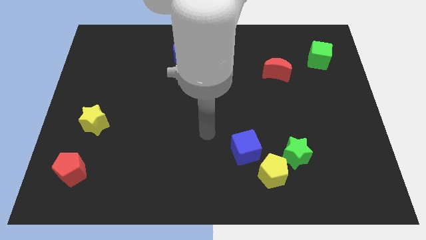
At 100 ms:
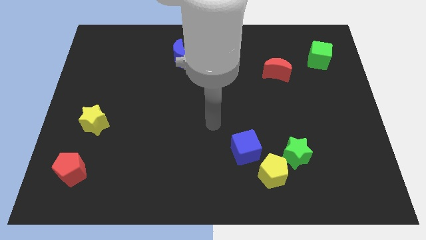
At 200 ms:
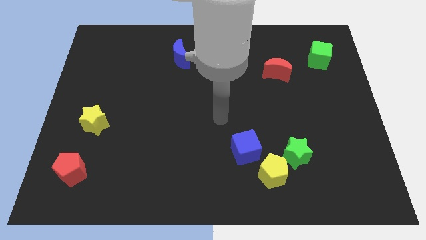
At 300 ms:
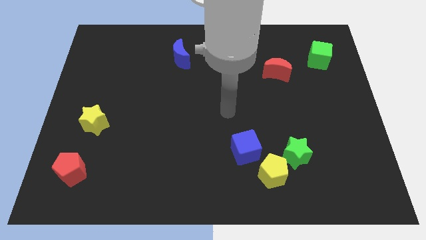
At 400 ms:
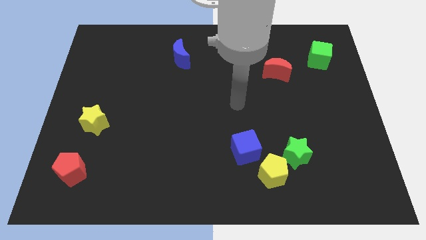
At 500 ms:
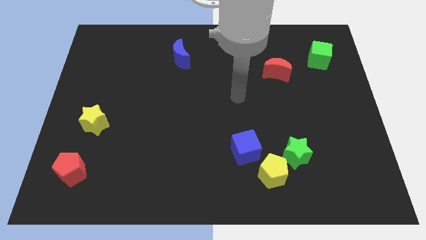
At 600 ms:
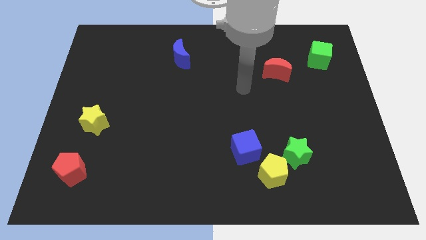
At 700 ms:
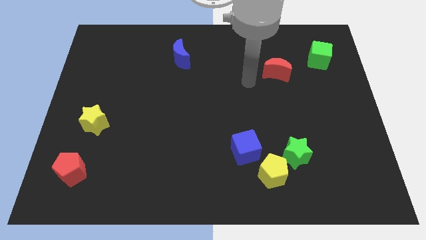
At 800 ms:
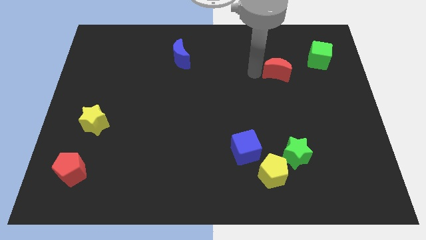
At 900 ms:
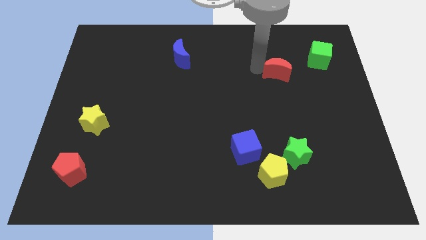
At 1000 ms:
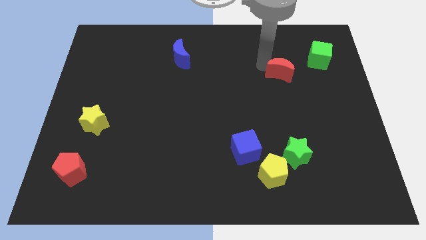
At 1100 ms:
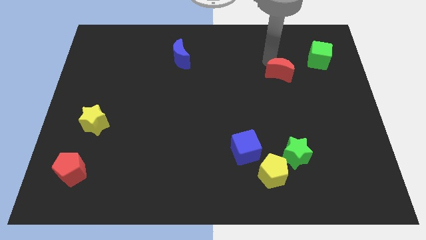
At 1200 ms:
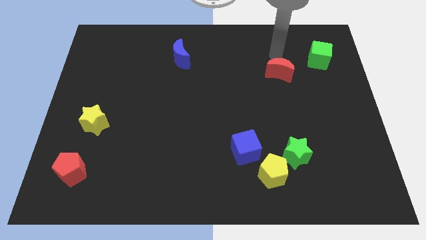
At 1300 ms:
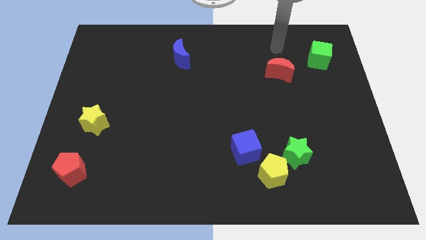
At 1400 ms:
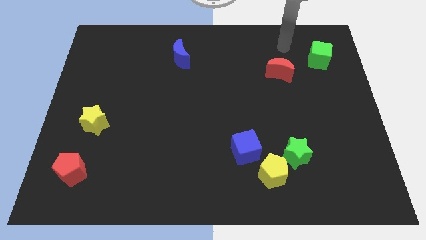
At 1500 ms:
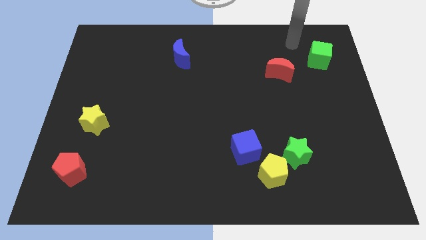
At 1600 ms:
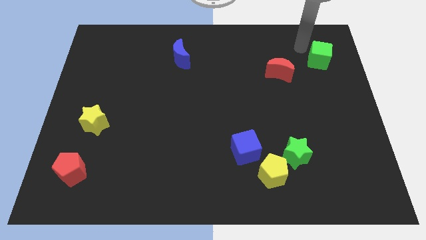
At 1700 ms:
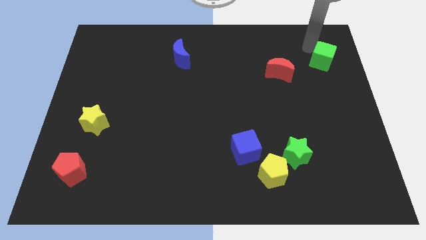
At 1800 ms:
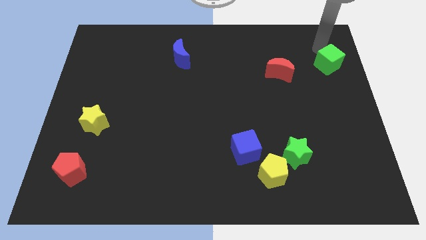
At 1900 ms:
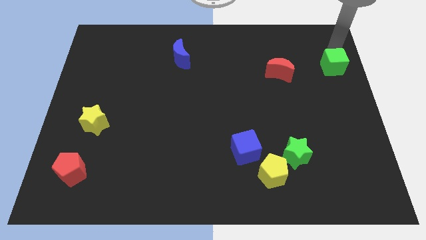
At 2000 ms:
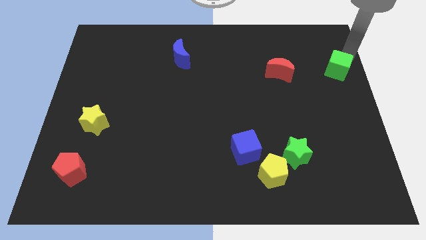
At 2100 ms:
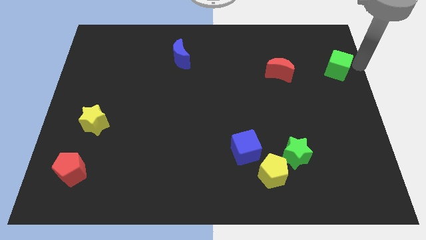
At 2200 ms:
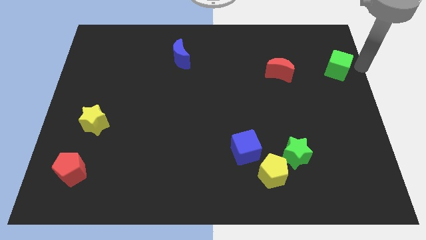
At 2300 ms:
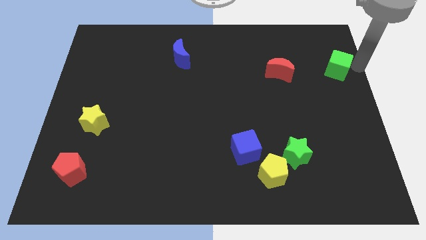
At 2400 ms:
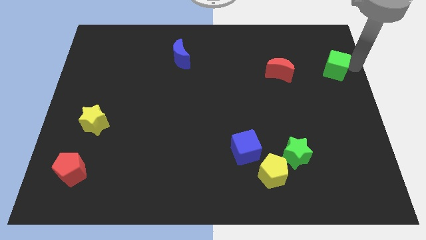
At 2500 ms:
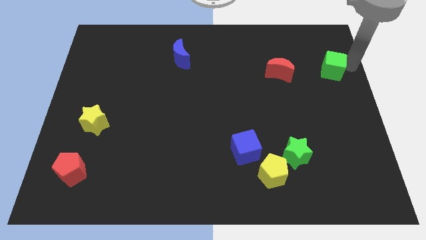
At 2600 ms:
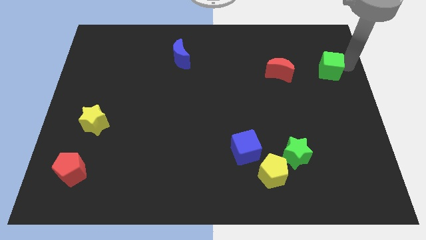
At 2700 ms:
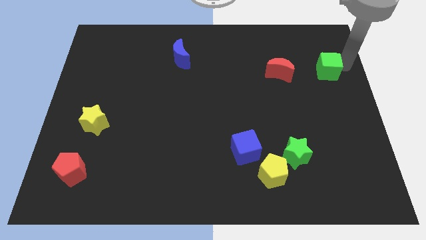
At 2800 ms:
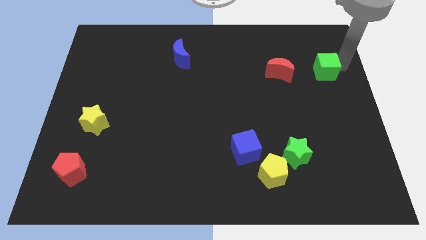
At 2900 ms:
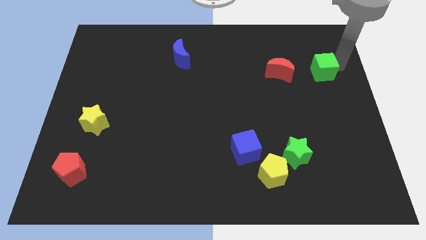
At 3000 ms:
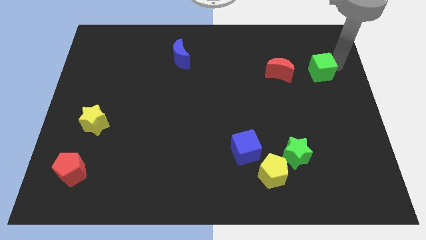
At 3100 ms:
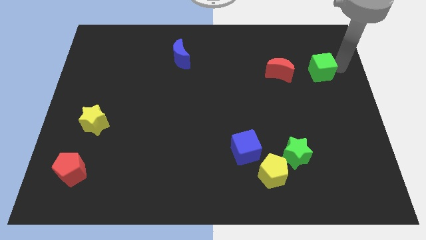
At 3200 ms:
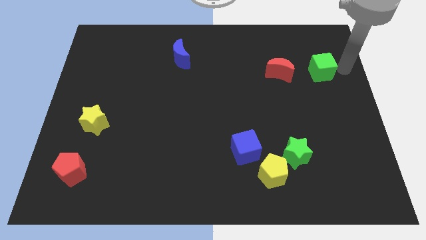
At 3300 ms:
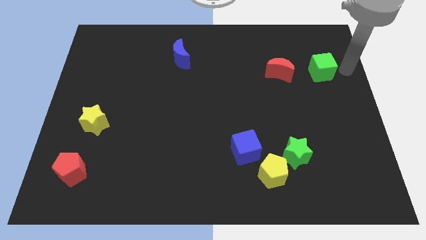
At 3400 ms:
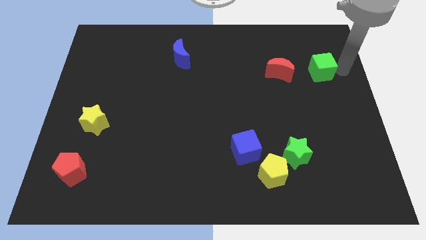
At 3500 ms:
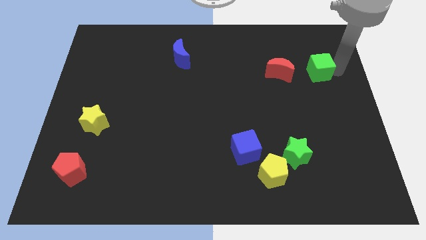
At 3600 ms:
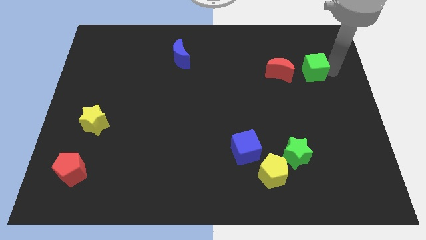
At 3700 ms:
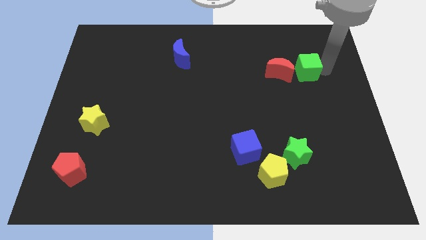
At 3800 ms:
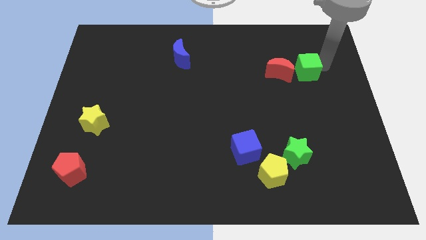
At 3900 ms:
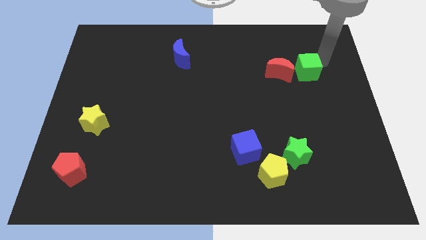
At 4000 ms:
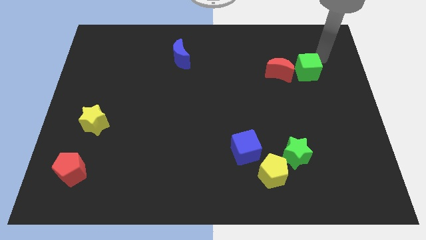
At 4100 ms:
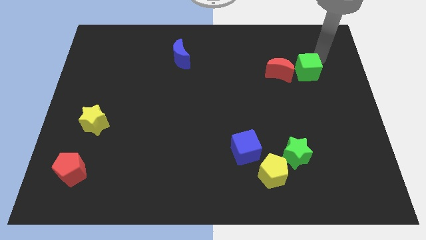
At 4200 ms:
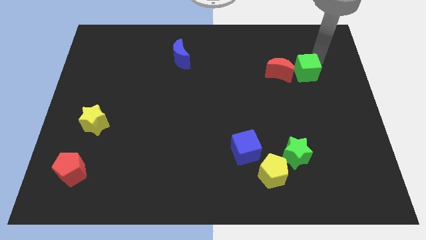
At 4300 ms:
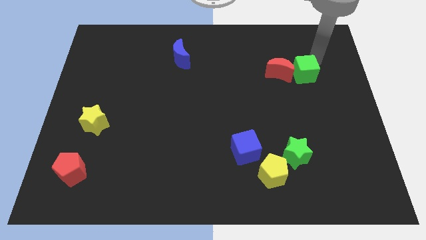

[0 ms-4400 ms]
slide the green cube down and then left slightly

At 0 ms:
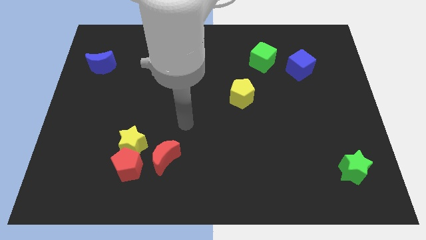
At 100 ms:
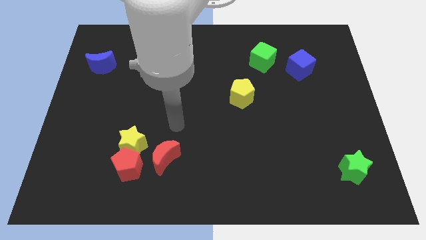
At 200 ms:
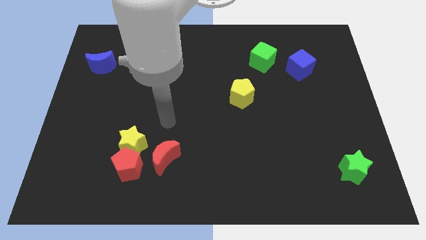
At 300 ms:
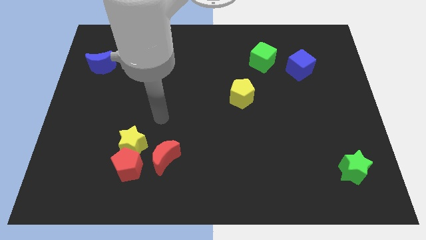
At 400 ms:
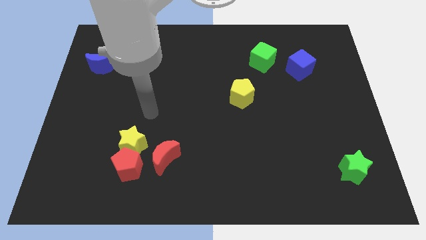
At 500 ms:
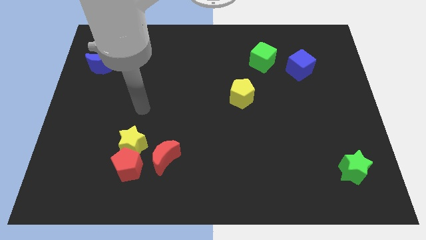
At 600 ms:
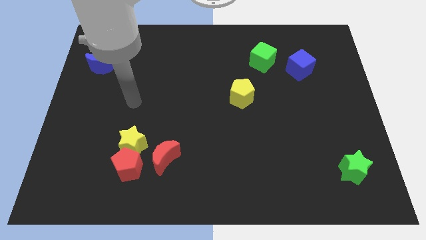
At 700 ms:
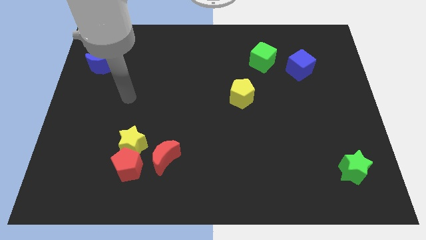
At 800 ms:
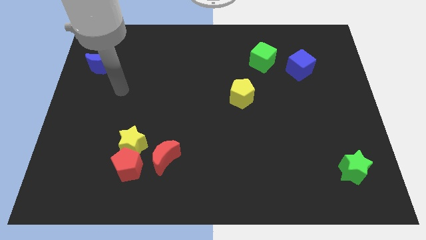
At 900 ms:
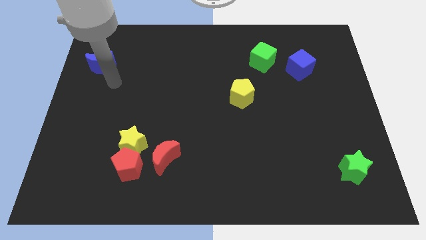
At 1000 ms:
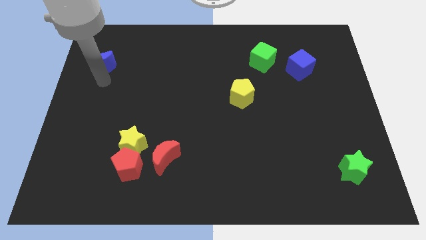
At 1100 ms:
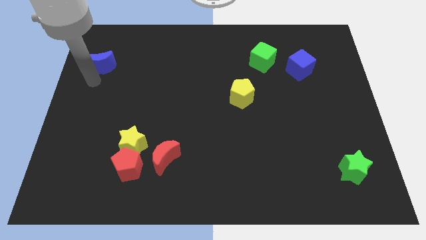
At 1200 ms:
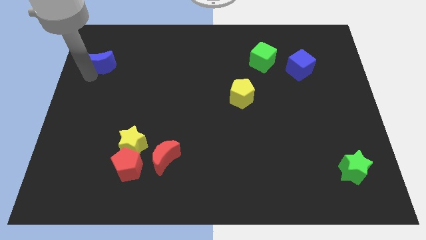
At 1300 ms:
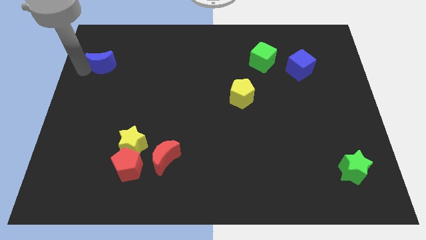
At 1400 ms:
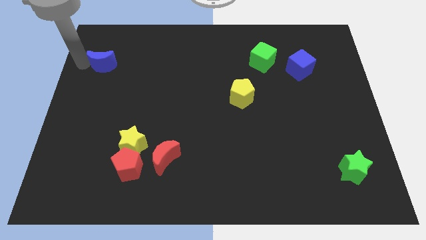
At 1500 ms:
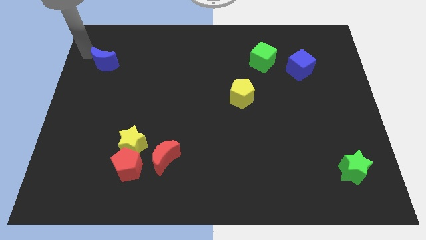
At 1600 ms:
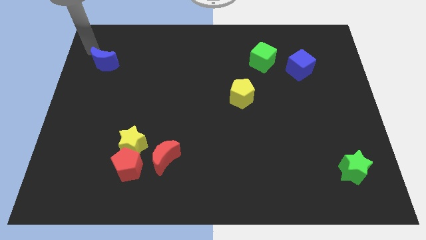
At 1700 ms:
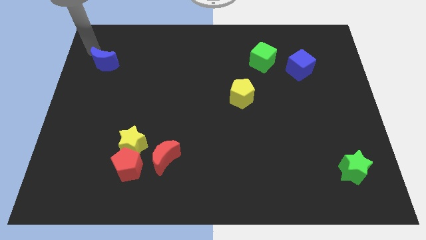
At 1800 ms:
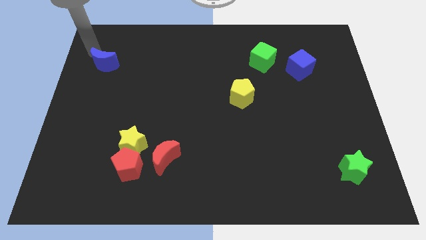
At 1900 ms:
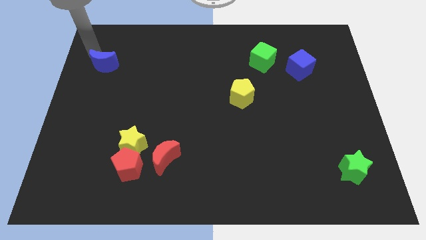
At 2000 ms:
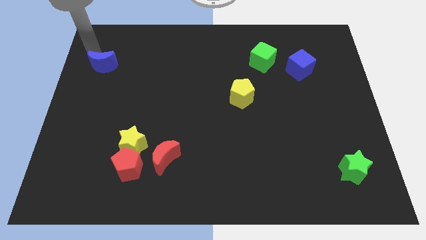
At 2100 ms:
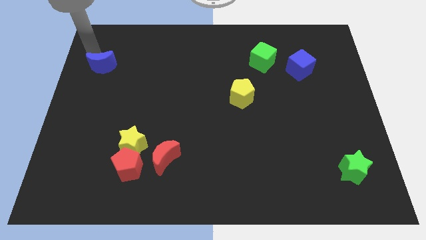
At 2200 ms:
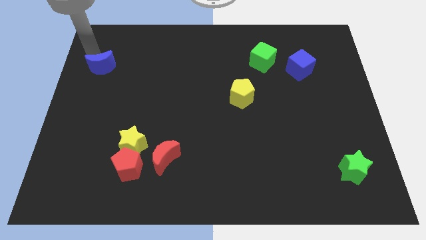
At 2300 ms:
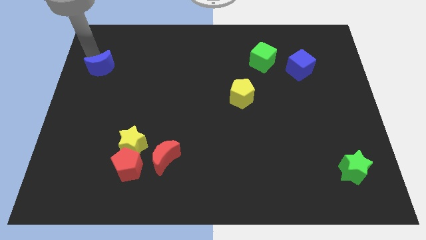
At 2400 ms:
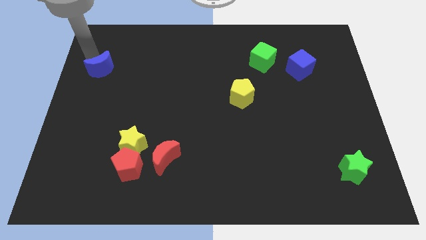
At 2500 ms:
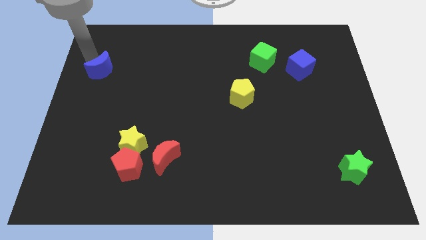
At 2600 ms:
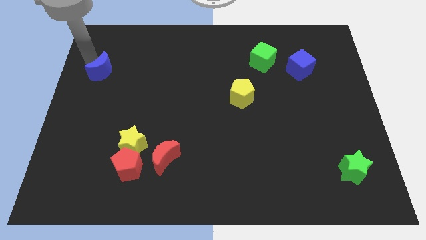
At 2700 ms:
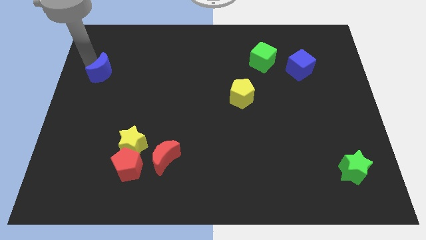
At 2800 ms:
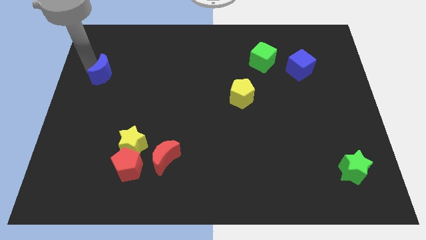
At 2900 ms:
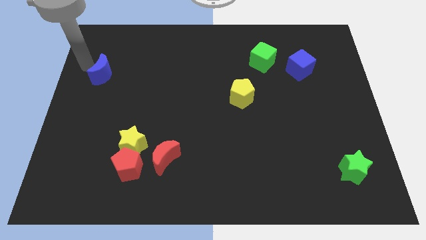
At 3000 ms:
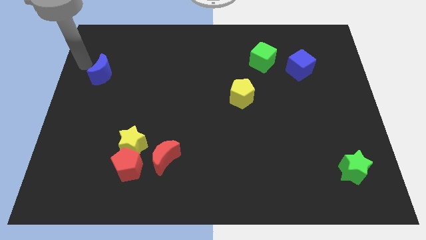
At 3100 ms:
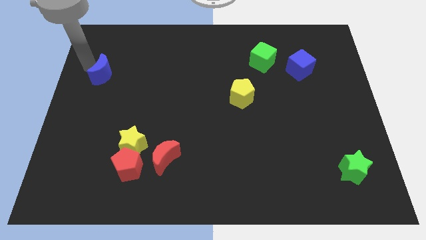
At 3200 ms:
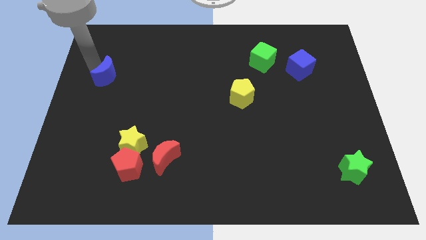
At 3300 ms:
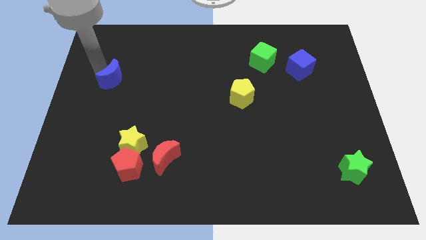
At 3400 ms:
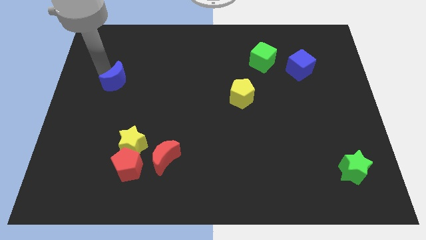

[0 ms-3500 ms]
slightly move the blue moon downwards and right diagonally

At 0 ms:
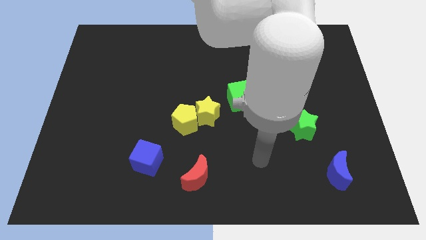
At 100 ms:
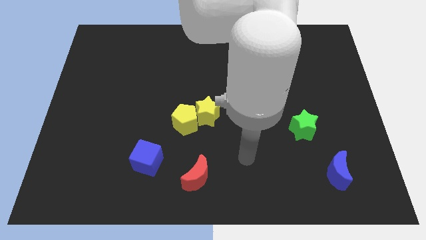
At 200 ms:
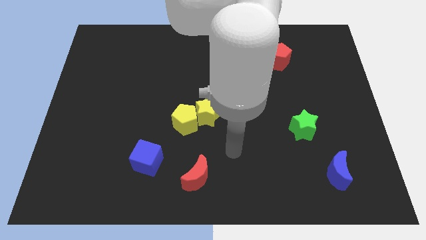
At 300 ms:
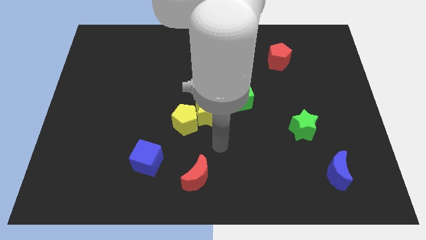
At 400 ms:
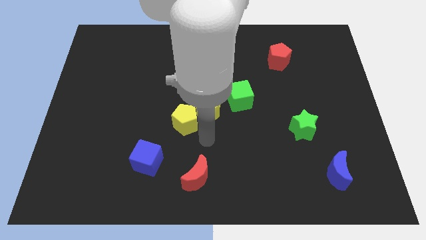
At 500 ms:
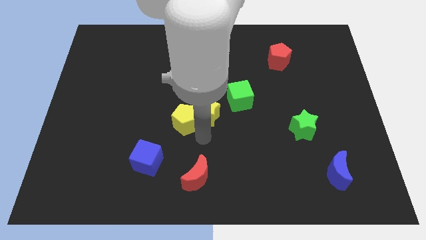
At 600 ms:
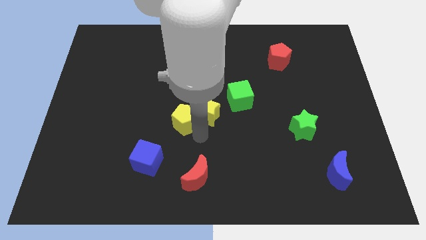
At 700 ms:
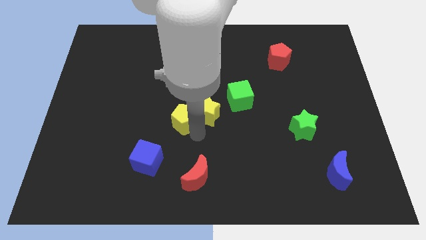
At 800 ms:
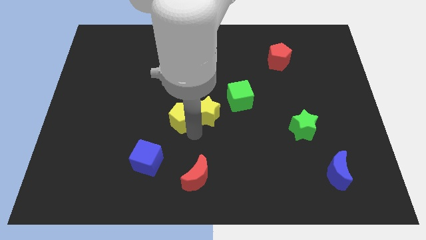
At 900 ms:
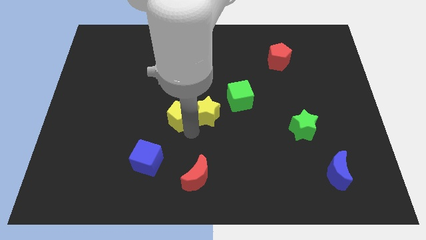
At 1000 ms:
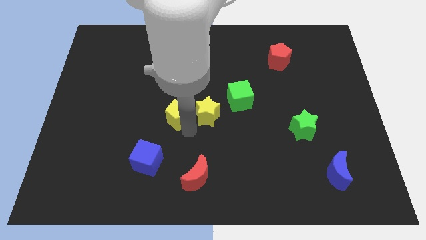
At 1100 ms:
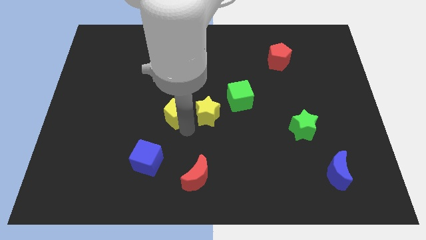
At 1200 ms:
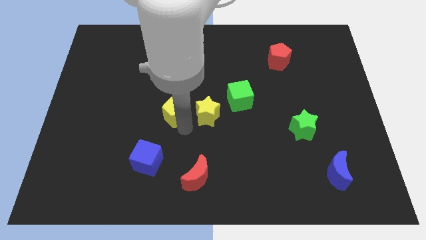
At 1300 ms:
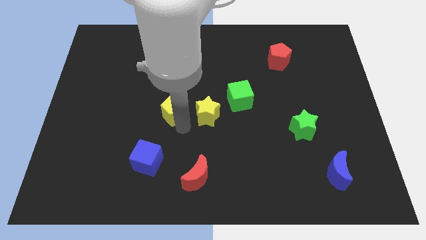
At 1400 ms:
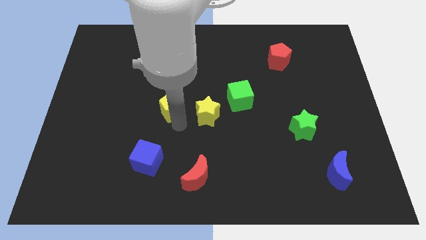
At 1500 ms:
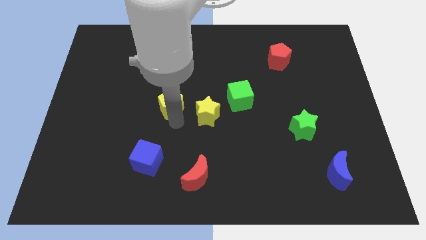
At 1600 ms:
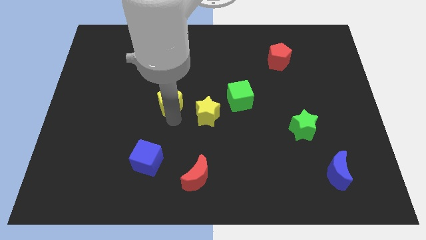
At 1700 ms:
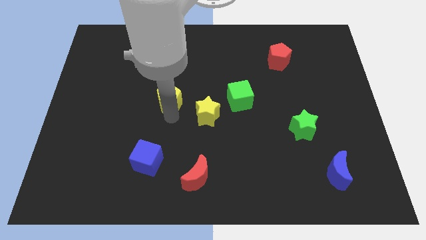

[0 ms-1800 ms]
slide the yellow pentagon a little bit up and to the left diagonally
